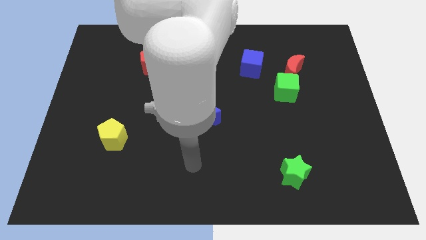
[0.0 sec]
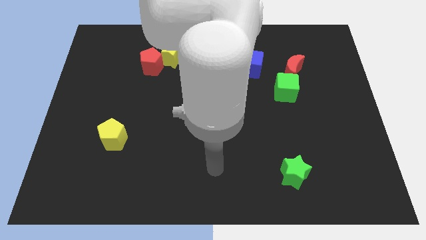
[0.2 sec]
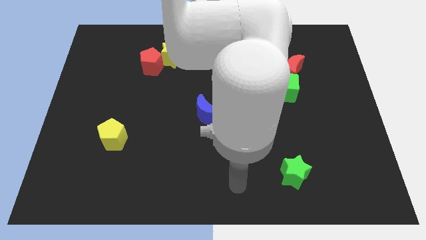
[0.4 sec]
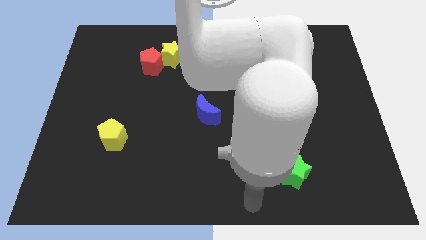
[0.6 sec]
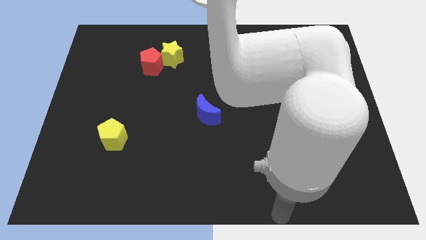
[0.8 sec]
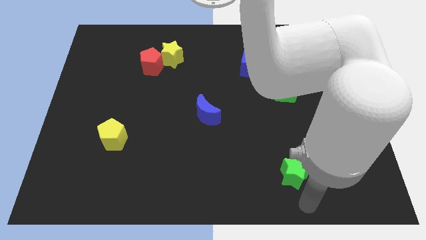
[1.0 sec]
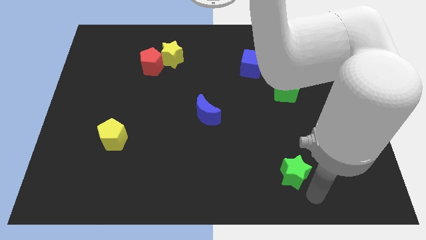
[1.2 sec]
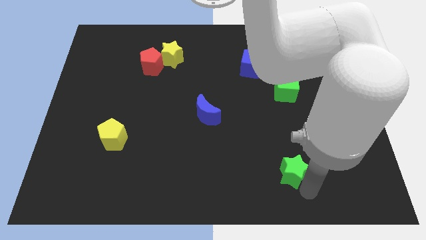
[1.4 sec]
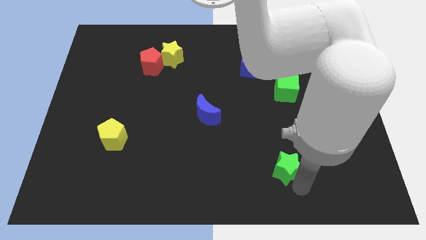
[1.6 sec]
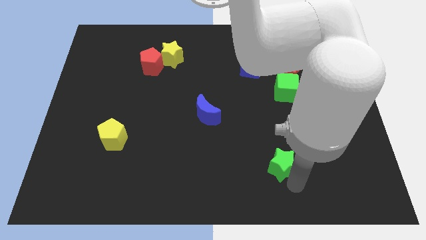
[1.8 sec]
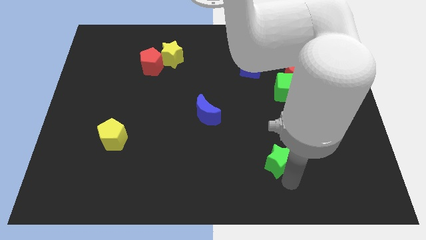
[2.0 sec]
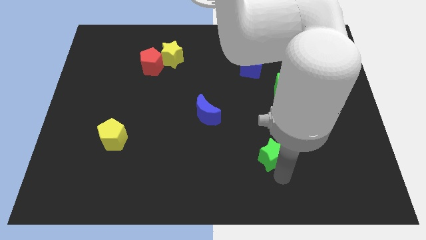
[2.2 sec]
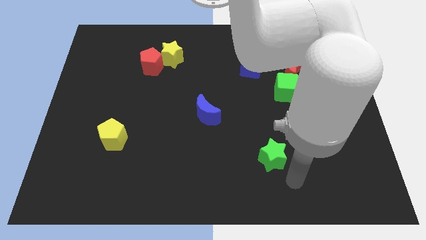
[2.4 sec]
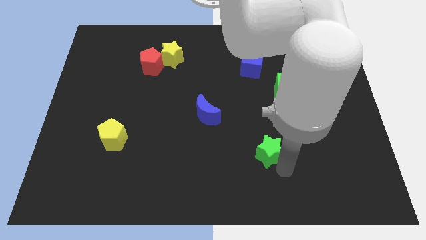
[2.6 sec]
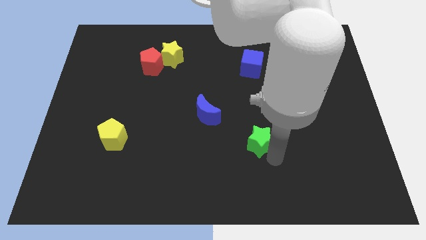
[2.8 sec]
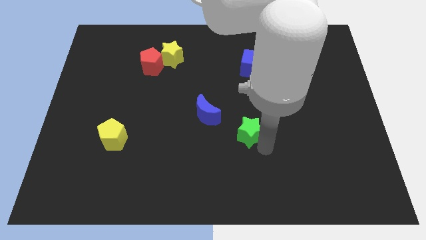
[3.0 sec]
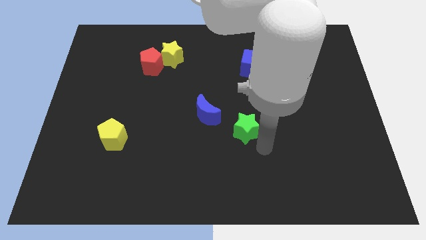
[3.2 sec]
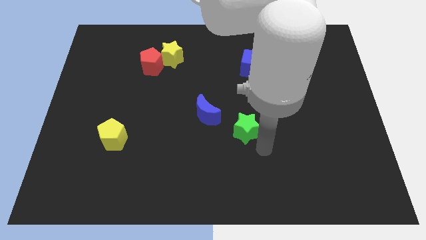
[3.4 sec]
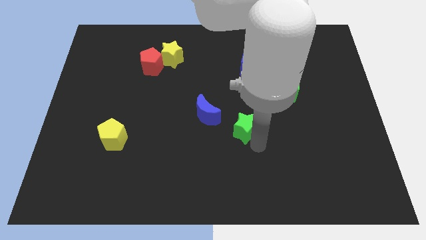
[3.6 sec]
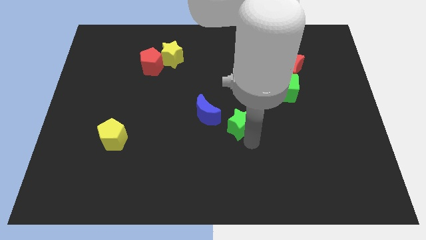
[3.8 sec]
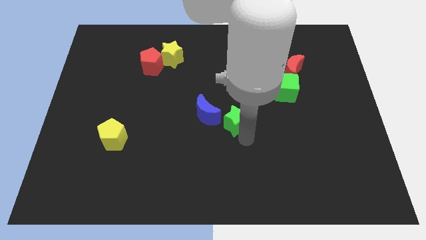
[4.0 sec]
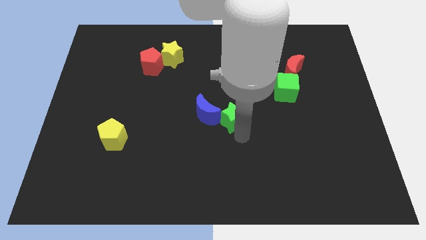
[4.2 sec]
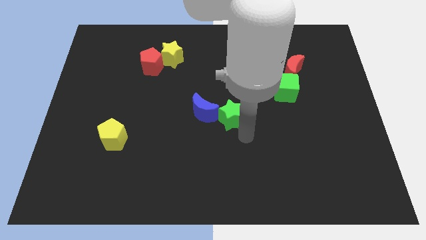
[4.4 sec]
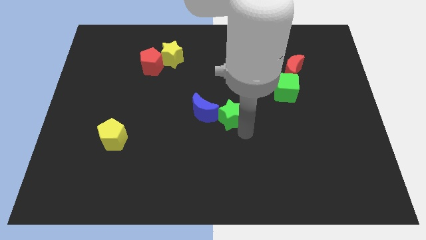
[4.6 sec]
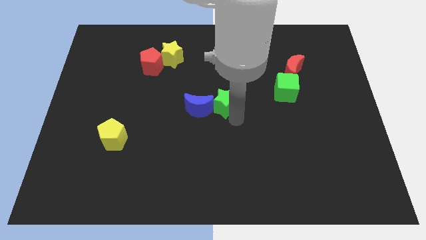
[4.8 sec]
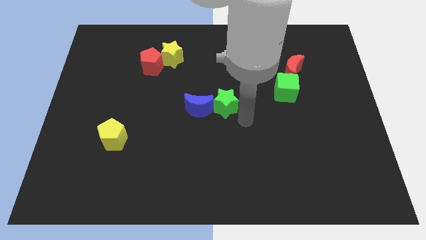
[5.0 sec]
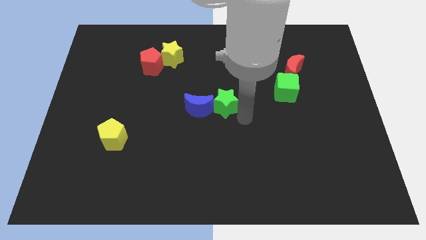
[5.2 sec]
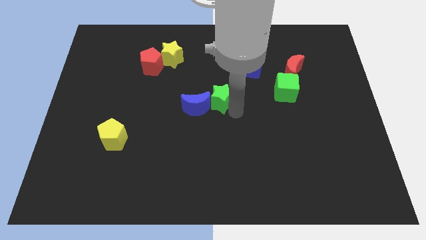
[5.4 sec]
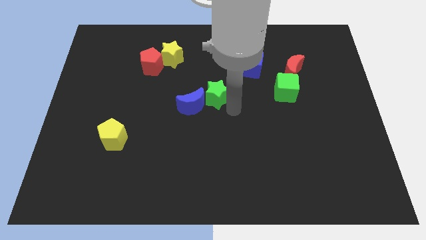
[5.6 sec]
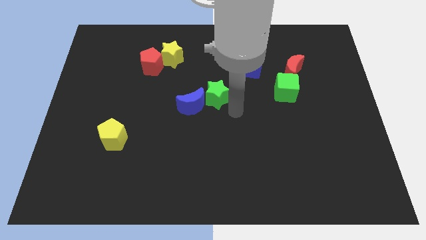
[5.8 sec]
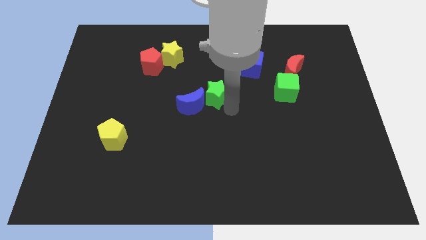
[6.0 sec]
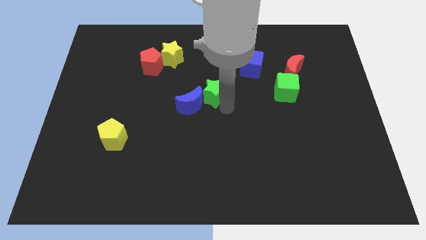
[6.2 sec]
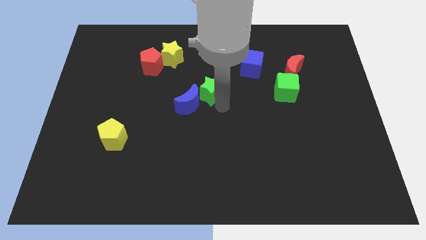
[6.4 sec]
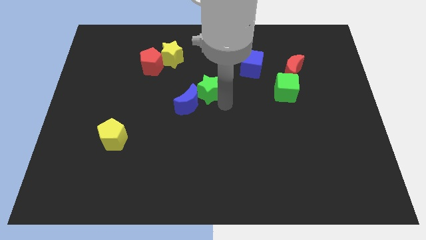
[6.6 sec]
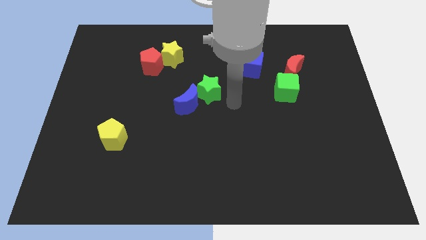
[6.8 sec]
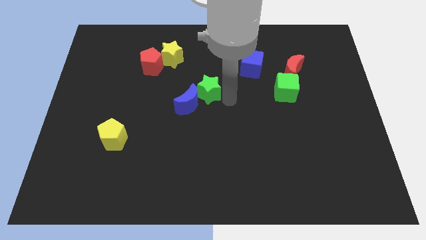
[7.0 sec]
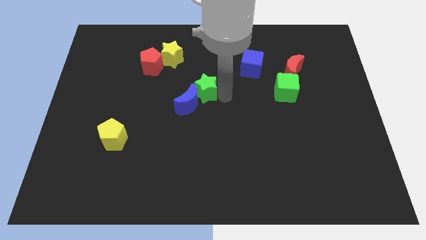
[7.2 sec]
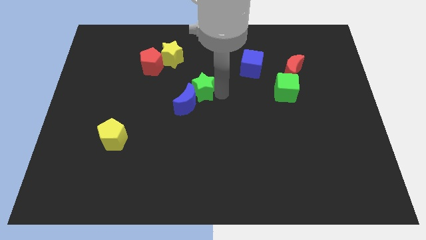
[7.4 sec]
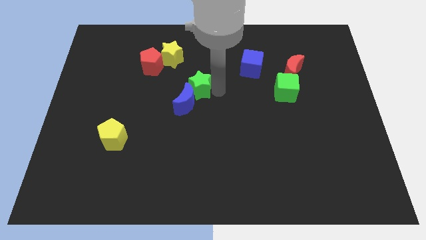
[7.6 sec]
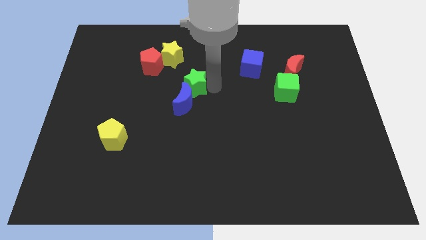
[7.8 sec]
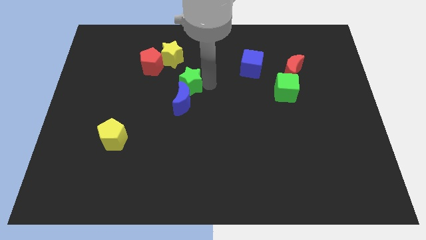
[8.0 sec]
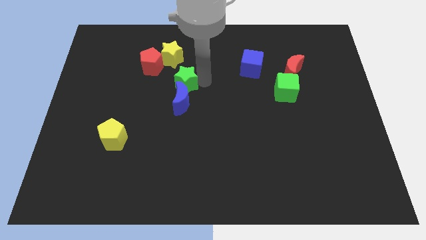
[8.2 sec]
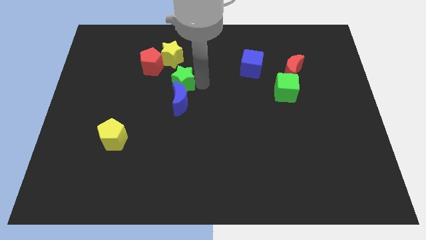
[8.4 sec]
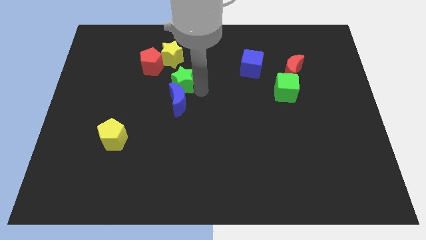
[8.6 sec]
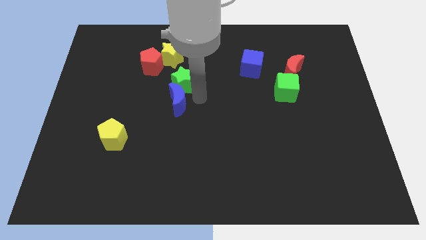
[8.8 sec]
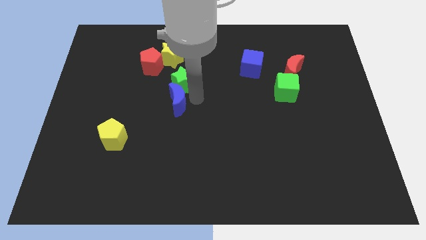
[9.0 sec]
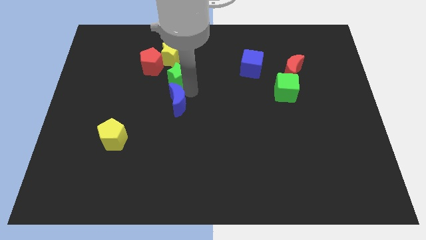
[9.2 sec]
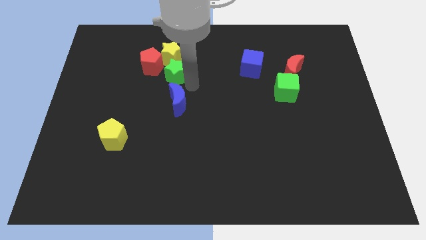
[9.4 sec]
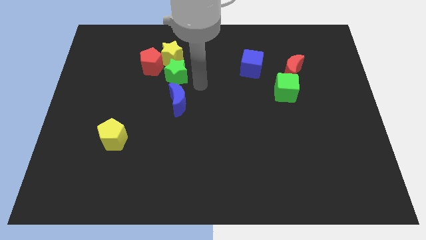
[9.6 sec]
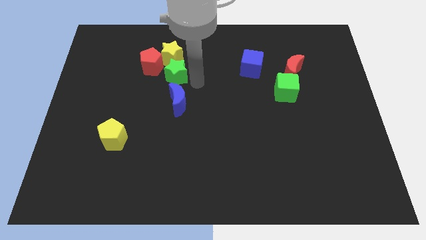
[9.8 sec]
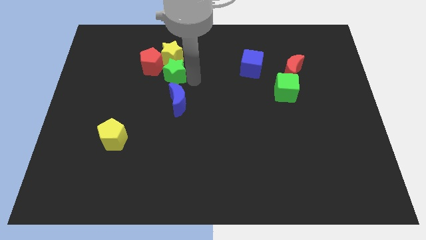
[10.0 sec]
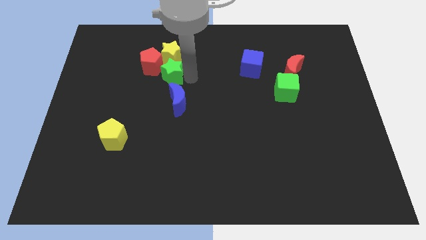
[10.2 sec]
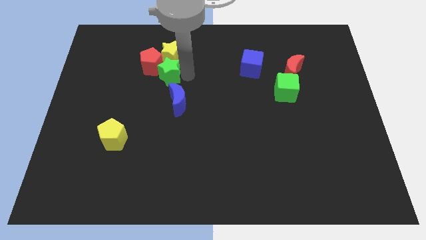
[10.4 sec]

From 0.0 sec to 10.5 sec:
put the green star towards the red pentagon

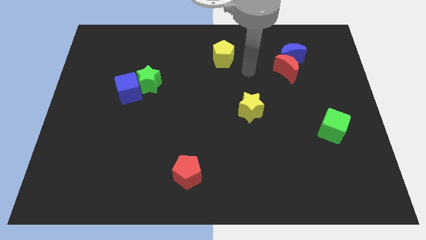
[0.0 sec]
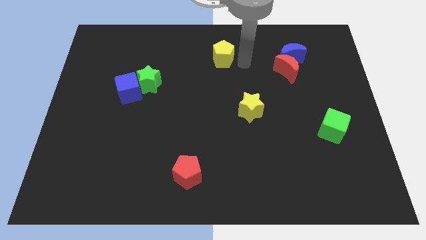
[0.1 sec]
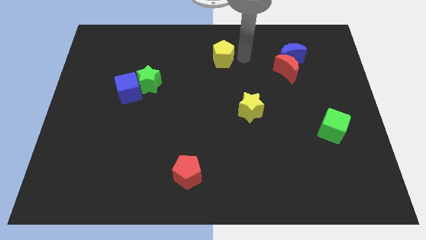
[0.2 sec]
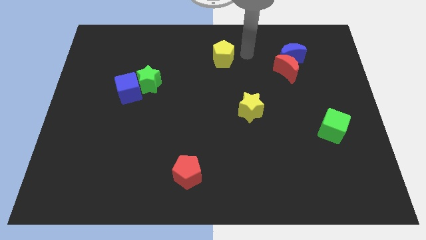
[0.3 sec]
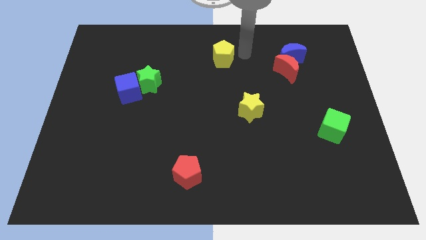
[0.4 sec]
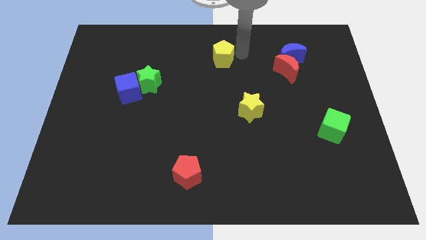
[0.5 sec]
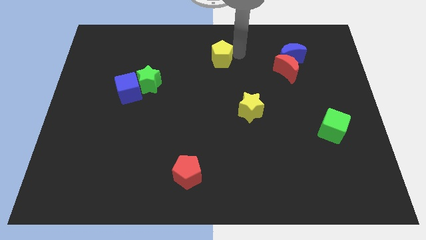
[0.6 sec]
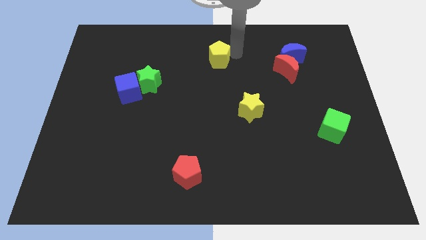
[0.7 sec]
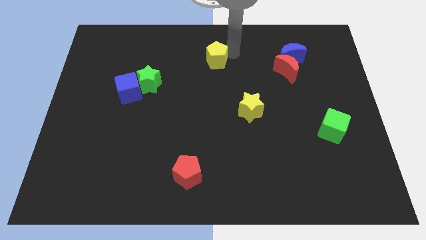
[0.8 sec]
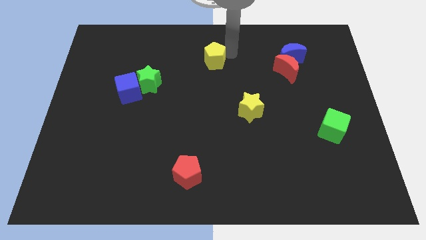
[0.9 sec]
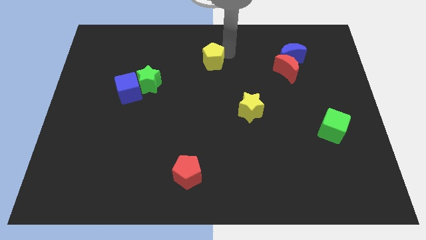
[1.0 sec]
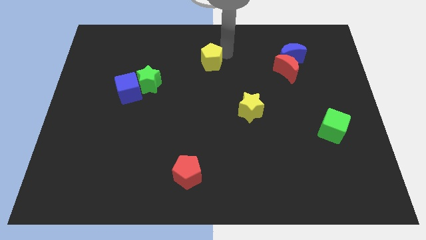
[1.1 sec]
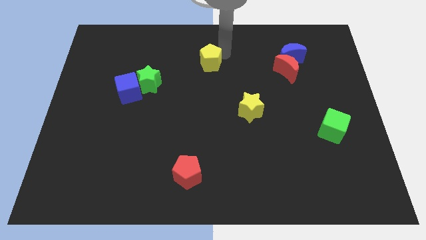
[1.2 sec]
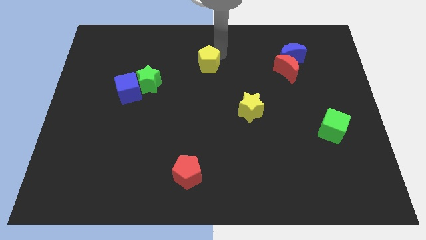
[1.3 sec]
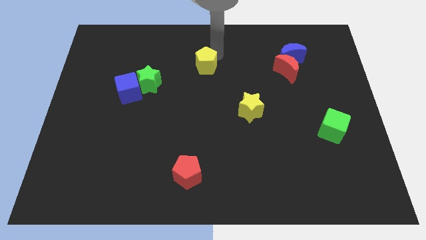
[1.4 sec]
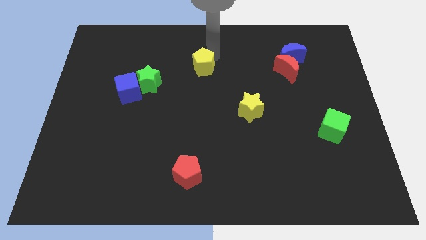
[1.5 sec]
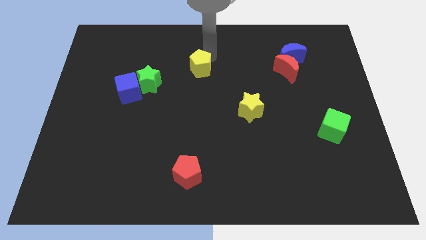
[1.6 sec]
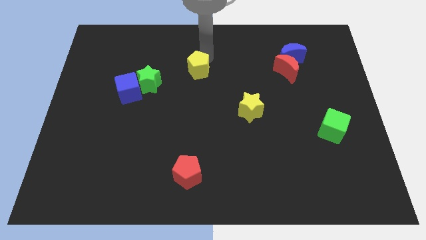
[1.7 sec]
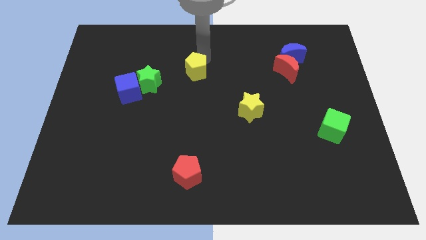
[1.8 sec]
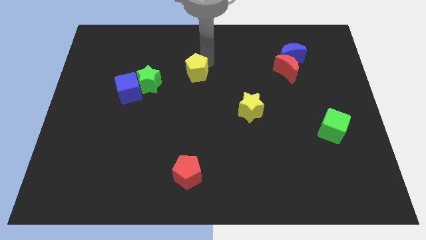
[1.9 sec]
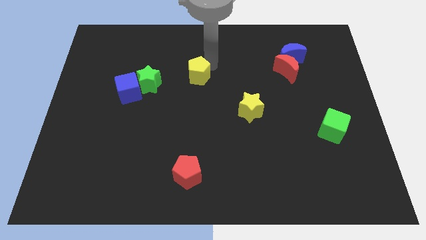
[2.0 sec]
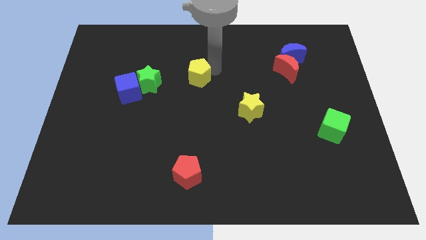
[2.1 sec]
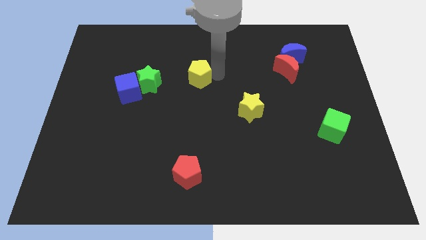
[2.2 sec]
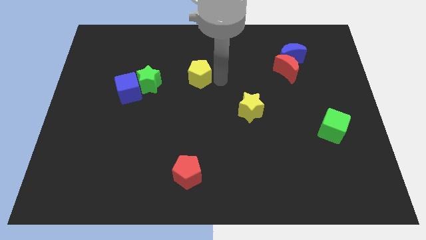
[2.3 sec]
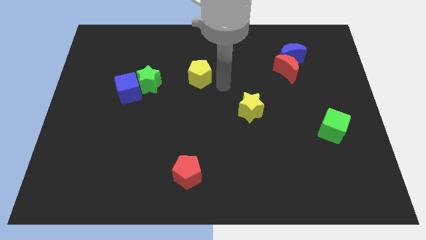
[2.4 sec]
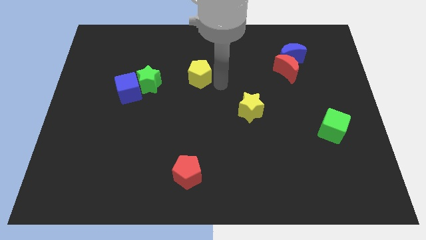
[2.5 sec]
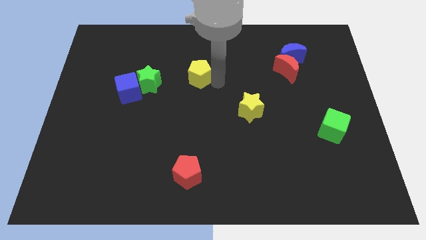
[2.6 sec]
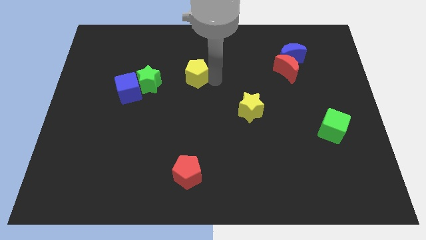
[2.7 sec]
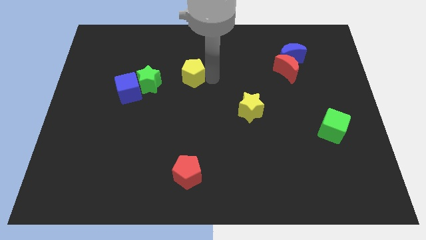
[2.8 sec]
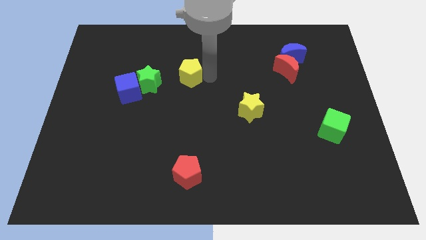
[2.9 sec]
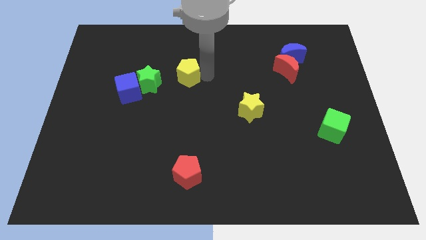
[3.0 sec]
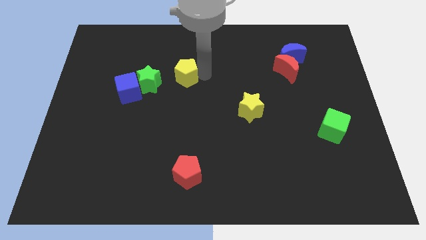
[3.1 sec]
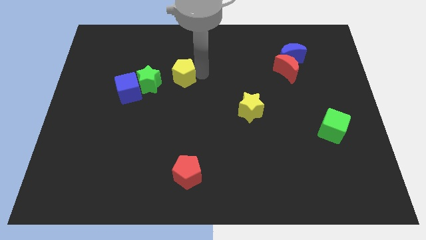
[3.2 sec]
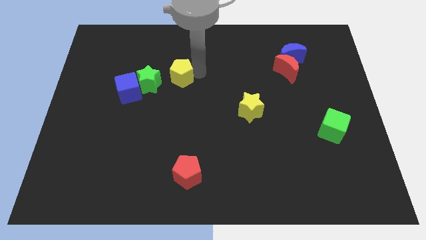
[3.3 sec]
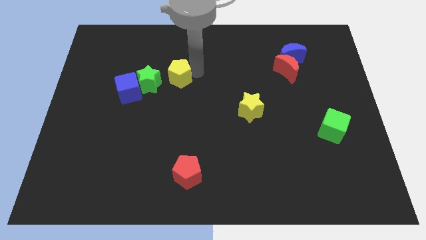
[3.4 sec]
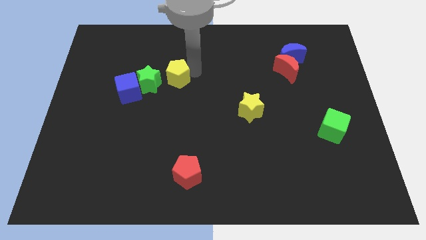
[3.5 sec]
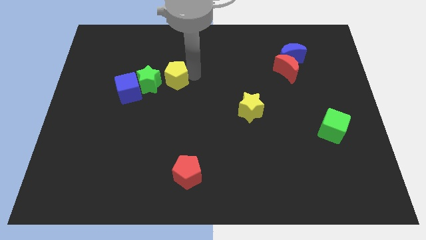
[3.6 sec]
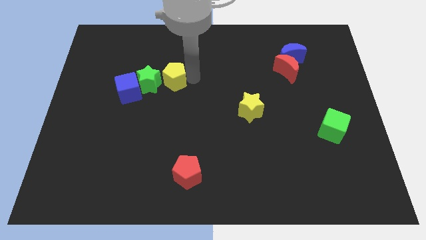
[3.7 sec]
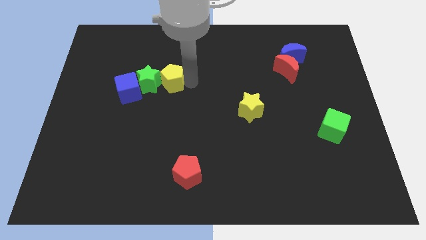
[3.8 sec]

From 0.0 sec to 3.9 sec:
slide the yellow pentagon close to the green star
